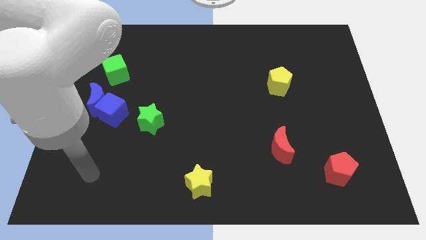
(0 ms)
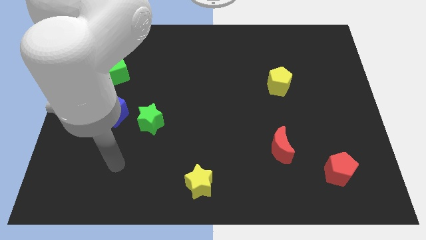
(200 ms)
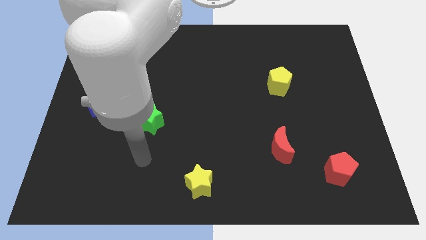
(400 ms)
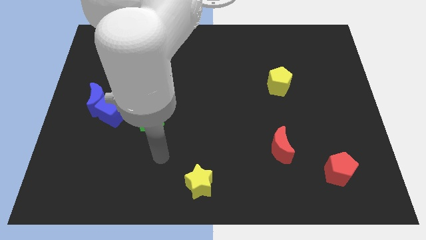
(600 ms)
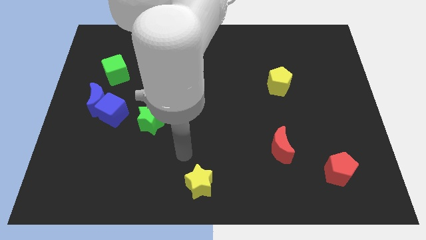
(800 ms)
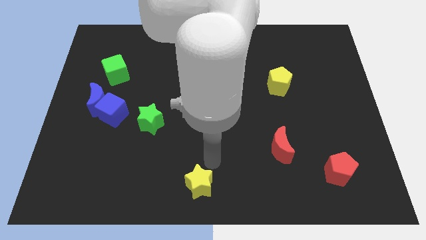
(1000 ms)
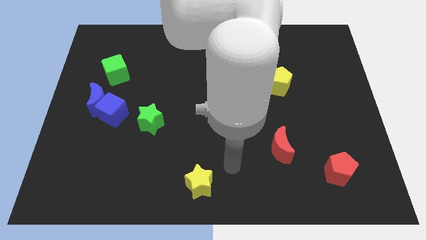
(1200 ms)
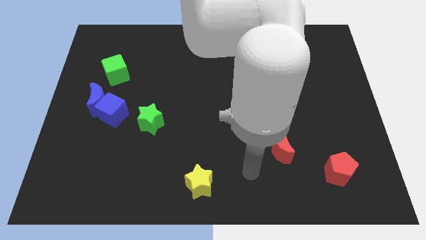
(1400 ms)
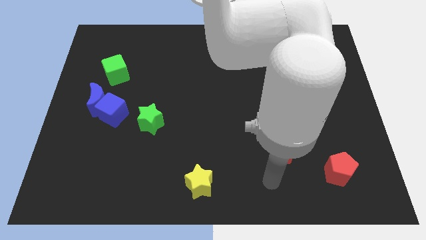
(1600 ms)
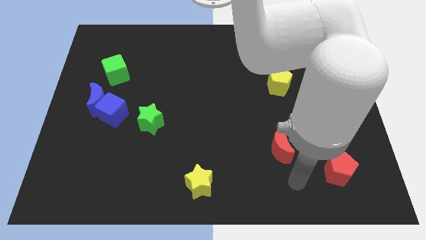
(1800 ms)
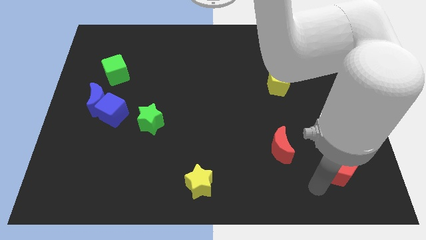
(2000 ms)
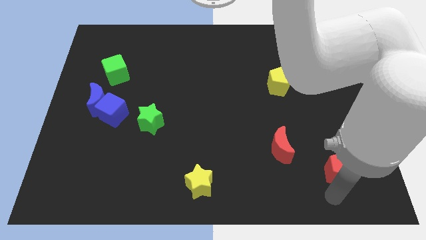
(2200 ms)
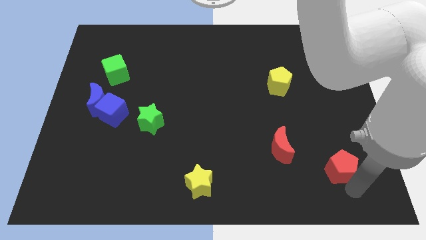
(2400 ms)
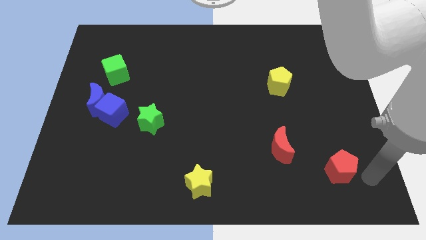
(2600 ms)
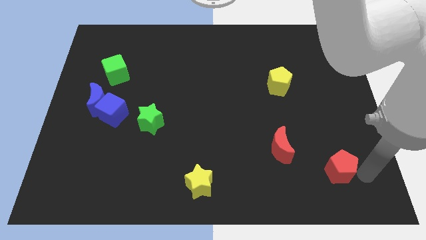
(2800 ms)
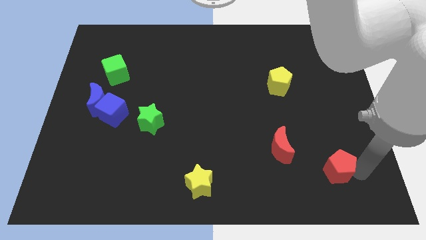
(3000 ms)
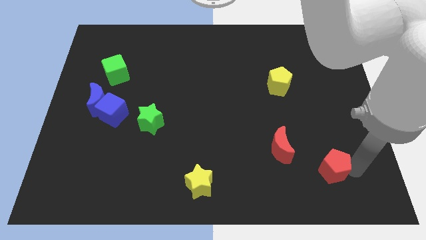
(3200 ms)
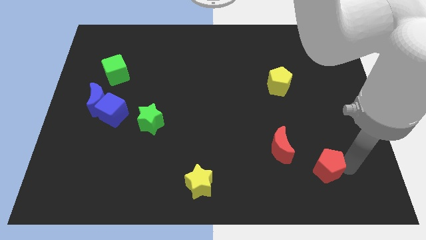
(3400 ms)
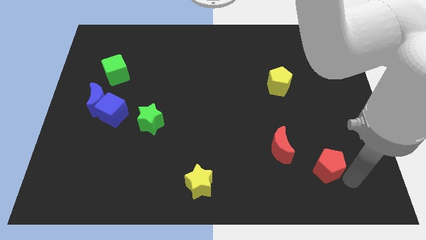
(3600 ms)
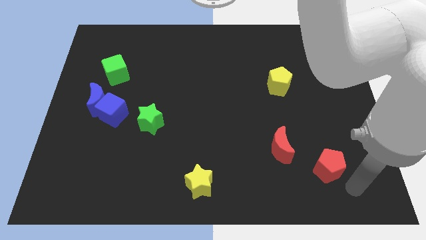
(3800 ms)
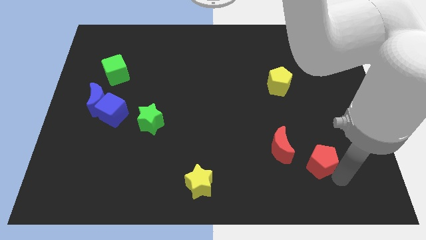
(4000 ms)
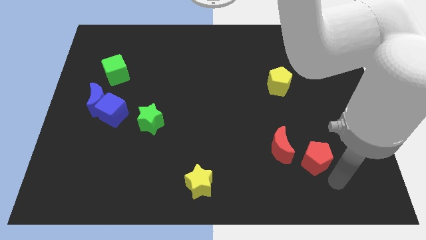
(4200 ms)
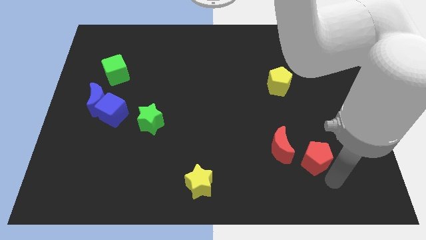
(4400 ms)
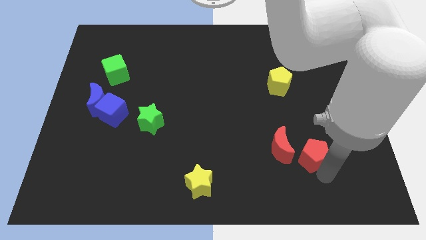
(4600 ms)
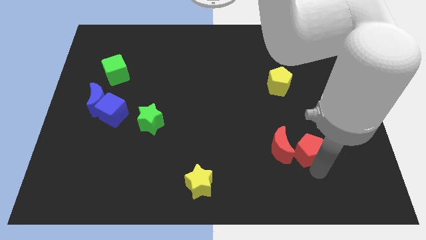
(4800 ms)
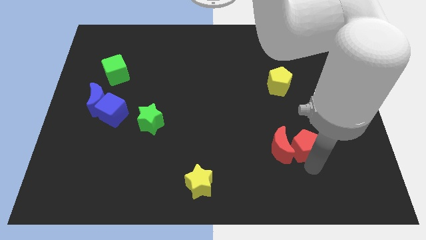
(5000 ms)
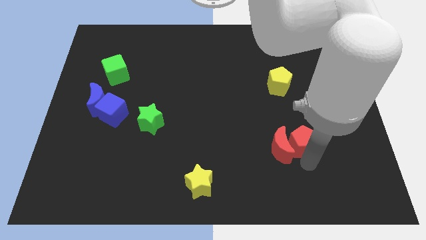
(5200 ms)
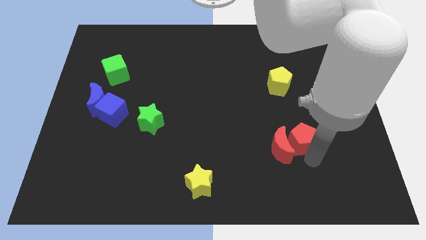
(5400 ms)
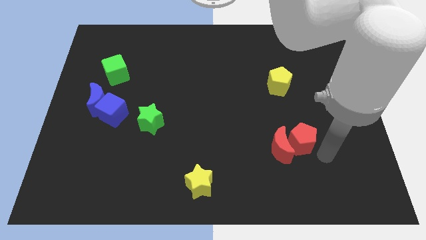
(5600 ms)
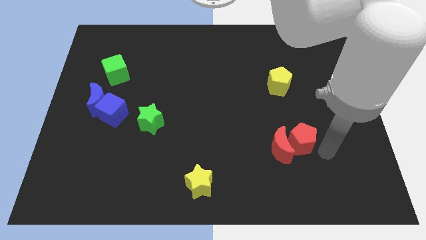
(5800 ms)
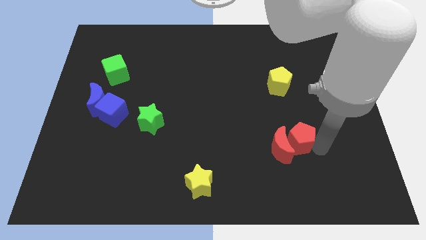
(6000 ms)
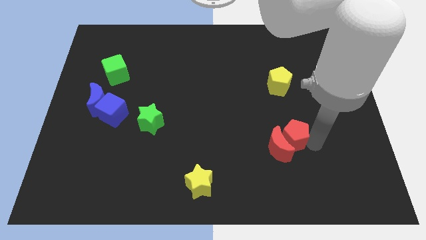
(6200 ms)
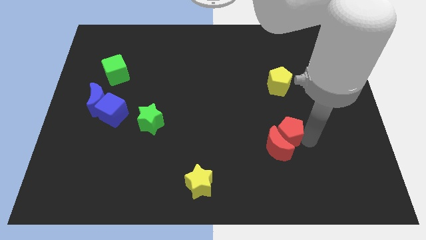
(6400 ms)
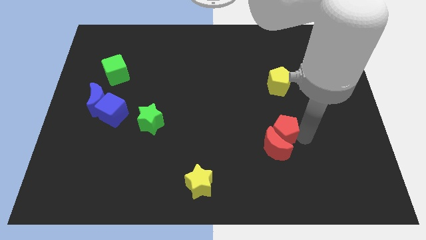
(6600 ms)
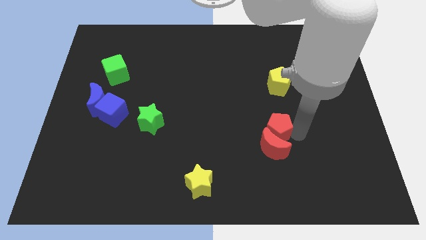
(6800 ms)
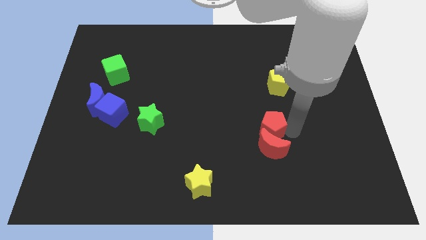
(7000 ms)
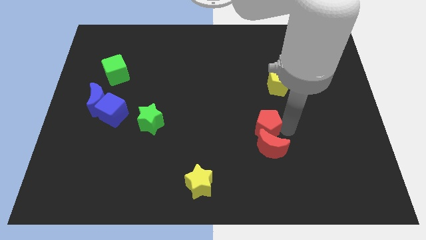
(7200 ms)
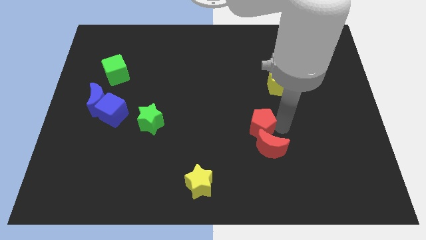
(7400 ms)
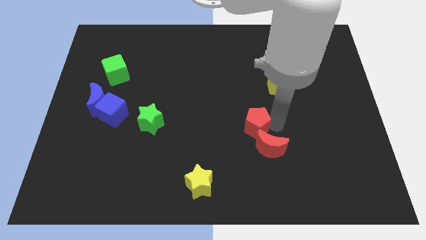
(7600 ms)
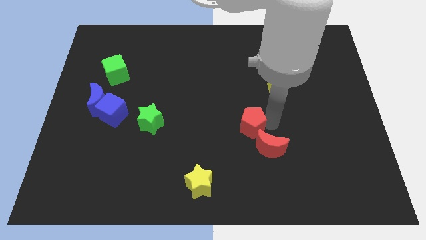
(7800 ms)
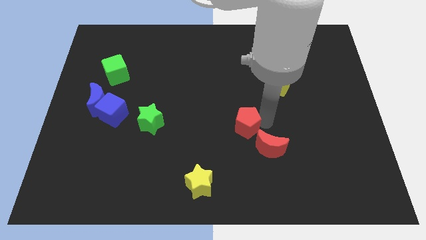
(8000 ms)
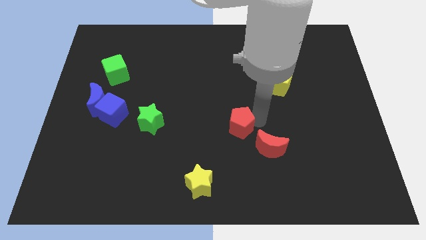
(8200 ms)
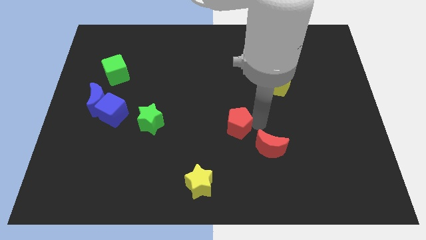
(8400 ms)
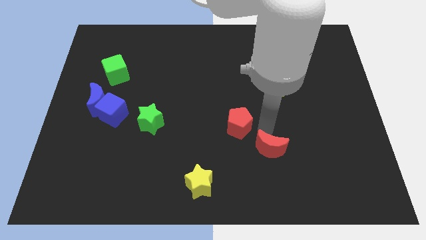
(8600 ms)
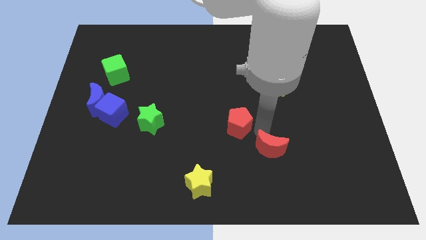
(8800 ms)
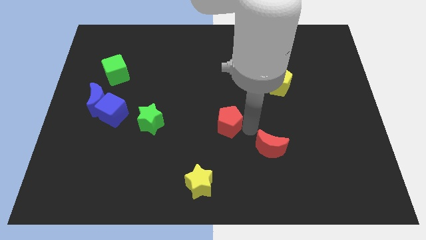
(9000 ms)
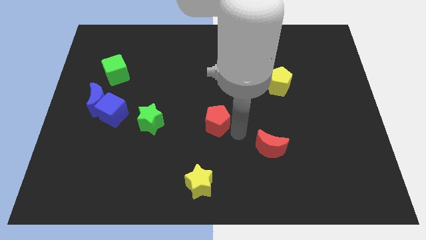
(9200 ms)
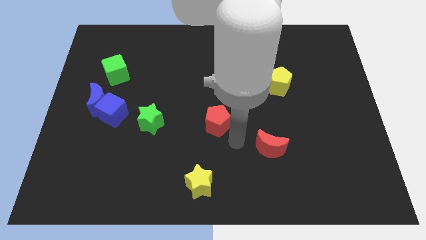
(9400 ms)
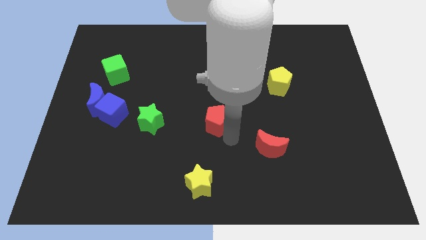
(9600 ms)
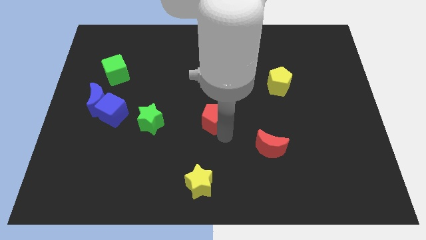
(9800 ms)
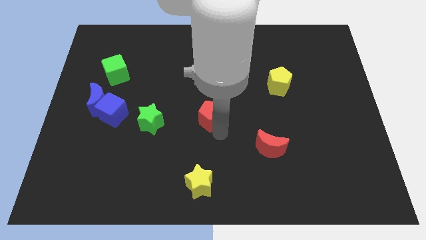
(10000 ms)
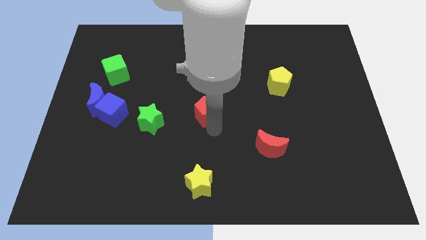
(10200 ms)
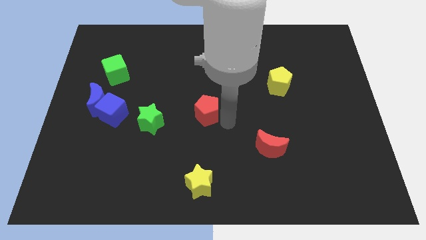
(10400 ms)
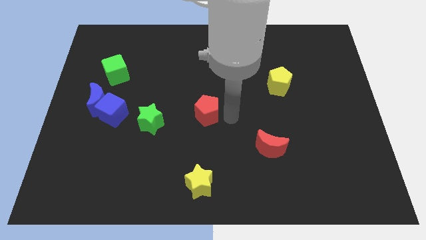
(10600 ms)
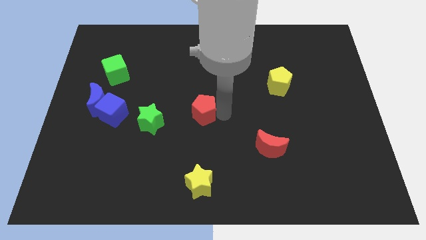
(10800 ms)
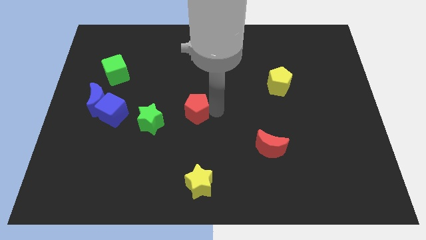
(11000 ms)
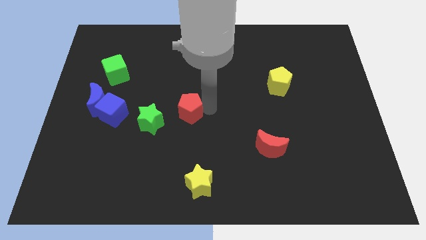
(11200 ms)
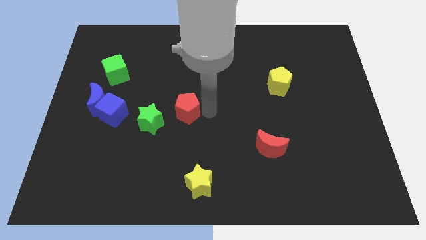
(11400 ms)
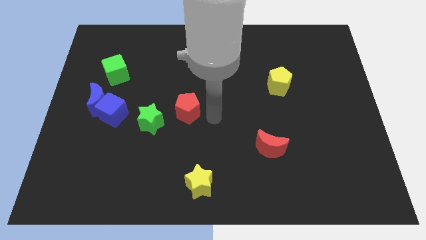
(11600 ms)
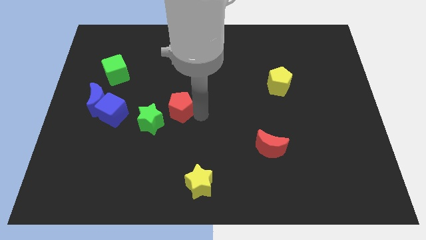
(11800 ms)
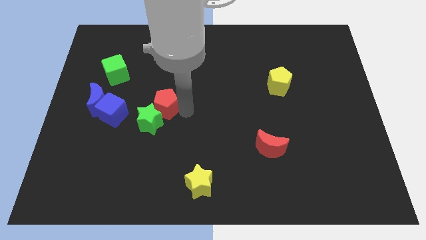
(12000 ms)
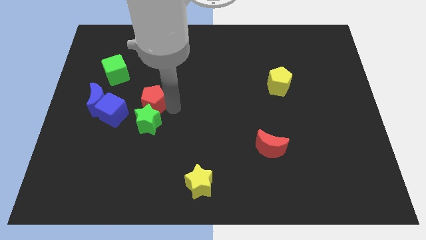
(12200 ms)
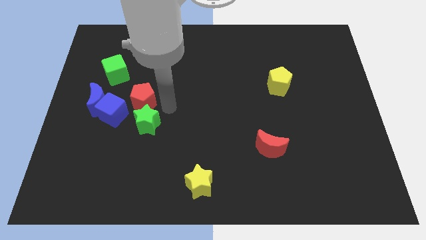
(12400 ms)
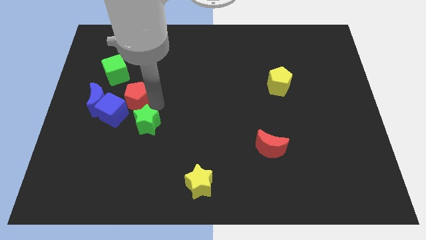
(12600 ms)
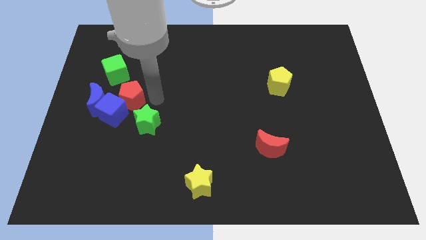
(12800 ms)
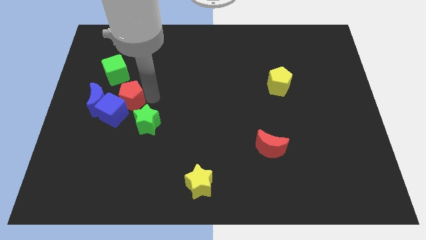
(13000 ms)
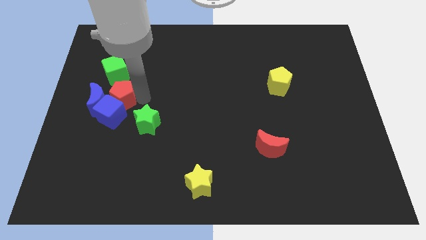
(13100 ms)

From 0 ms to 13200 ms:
move the red pentagon next to the blue moon

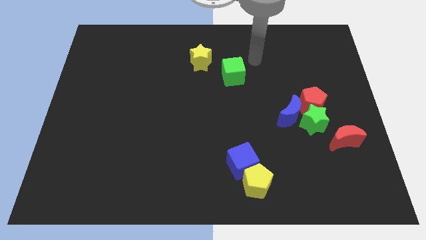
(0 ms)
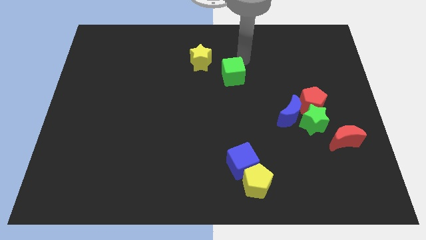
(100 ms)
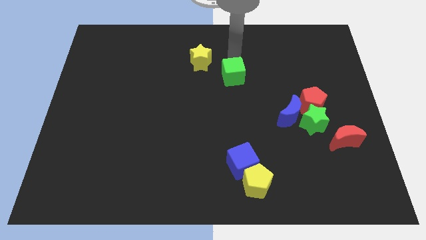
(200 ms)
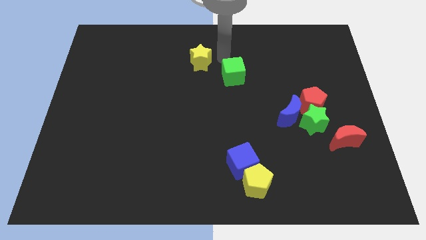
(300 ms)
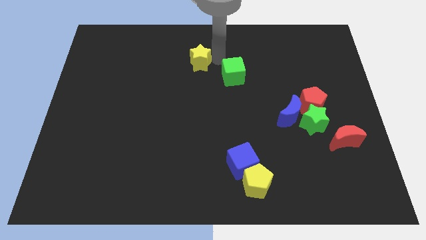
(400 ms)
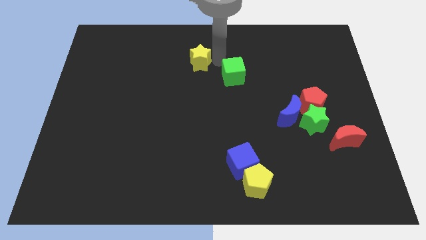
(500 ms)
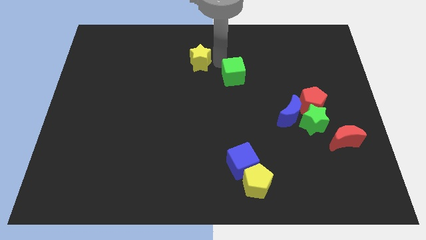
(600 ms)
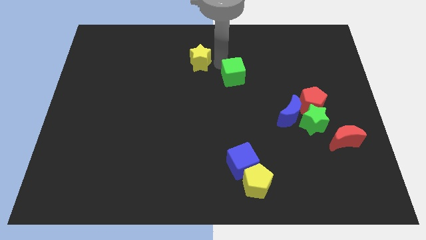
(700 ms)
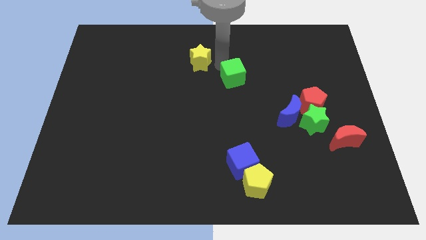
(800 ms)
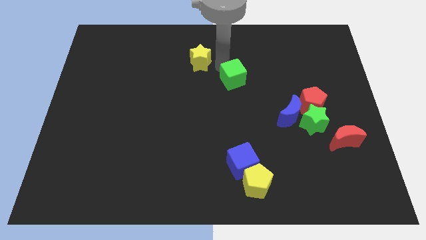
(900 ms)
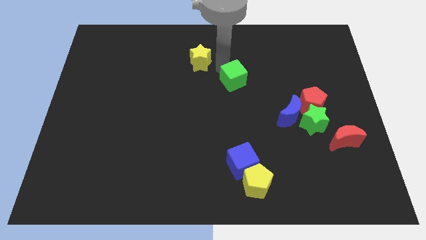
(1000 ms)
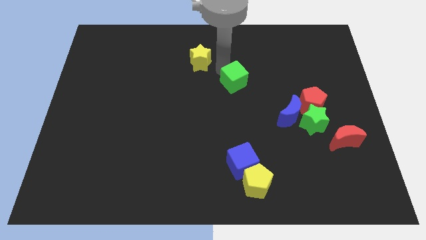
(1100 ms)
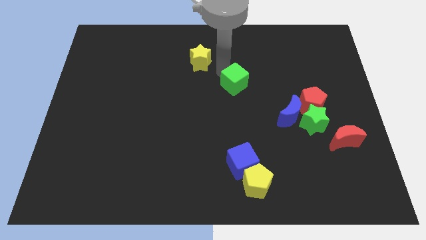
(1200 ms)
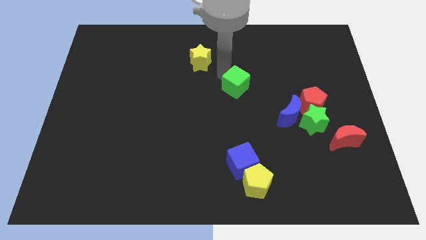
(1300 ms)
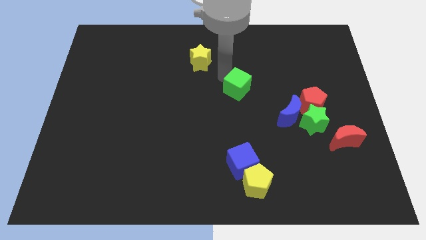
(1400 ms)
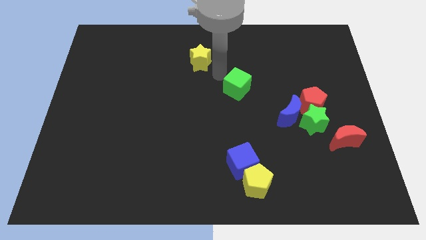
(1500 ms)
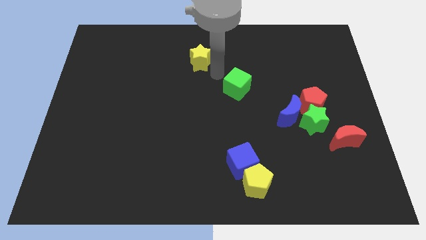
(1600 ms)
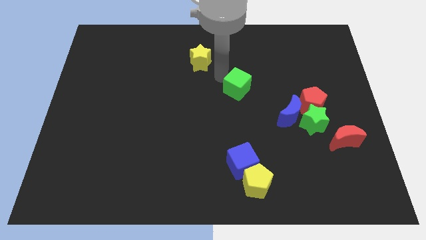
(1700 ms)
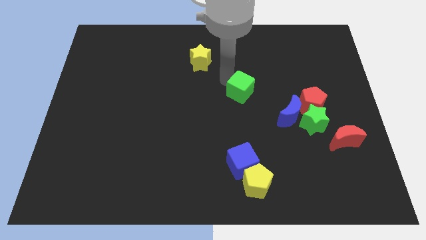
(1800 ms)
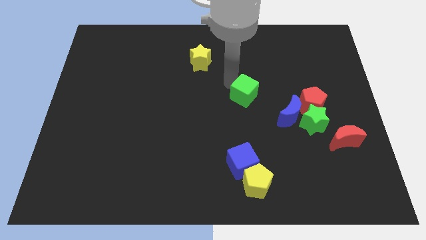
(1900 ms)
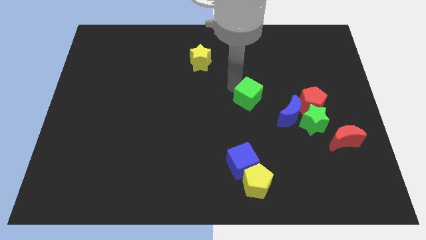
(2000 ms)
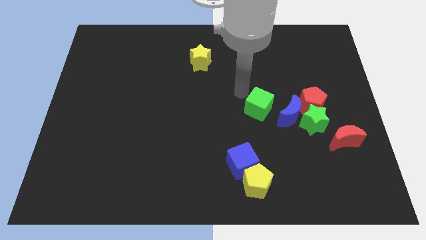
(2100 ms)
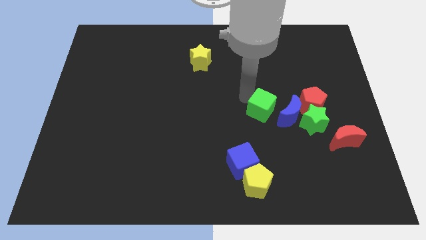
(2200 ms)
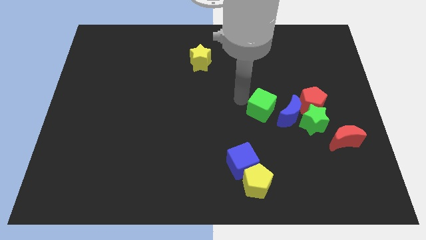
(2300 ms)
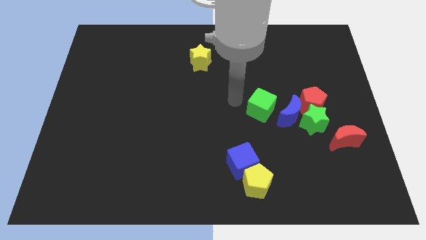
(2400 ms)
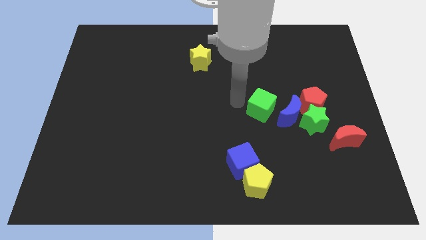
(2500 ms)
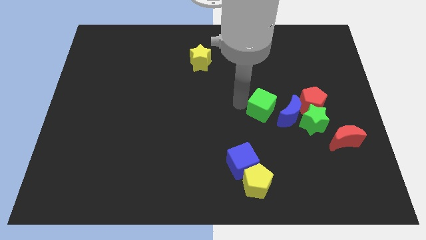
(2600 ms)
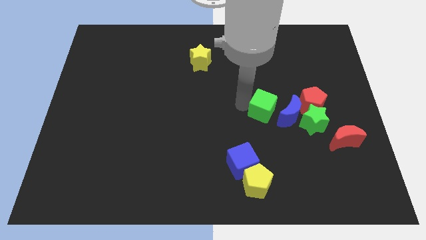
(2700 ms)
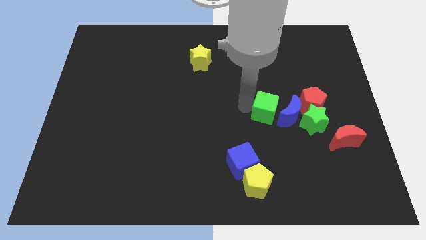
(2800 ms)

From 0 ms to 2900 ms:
move the green cube towards the blue moon
